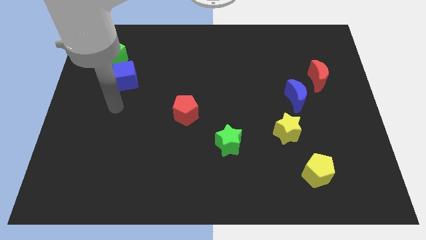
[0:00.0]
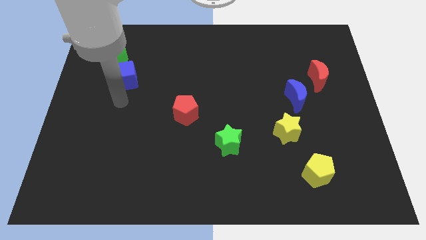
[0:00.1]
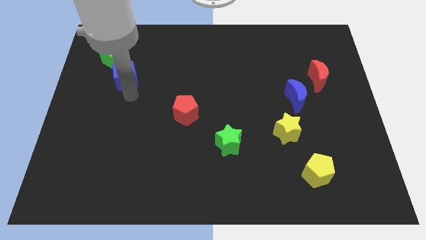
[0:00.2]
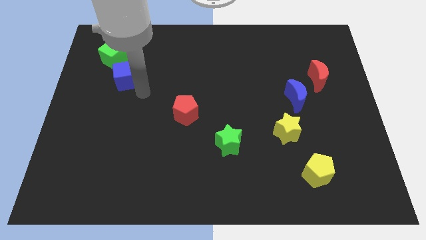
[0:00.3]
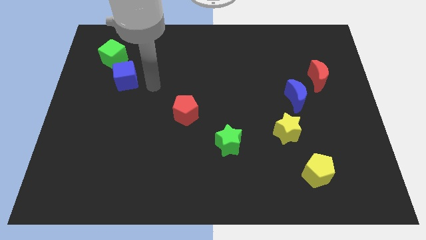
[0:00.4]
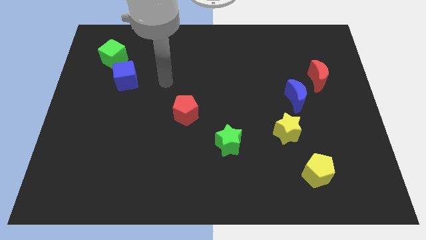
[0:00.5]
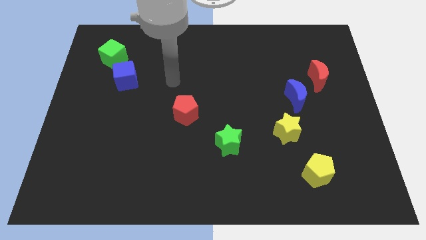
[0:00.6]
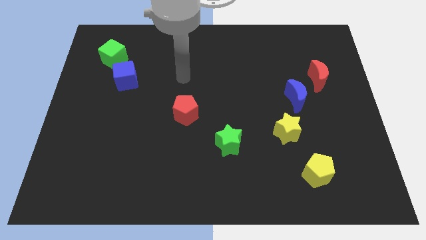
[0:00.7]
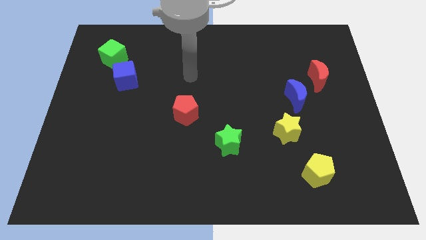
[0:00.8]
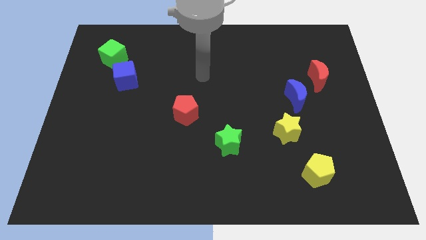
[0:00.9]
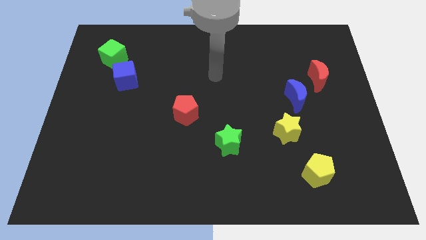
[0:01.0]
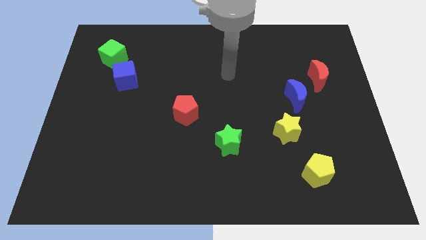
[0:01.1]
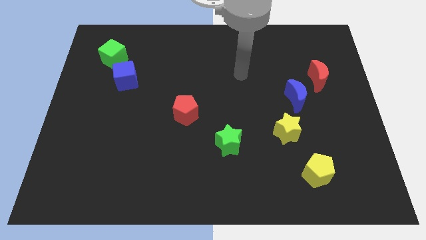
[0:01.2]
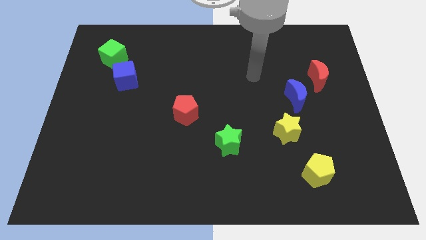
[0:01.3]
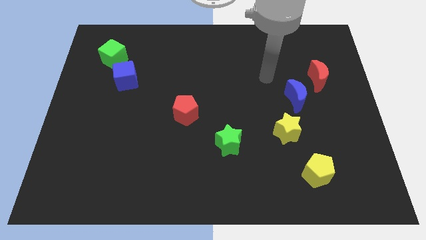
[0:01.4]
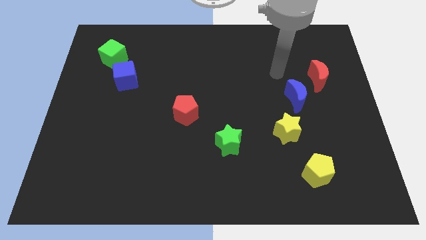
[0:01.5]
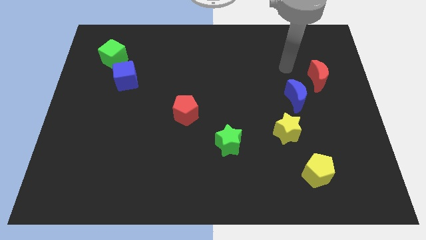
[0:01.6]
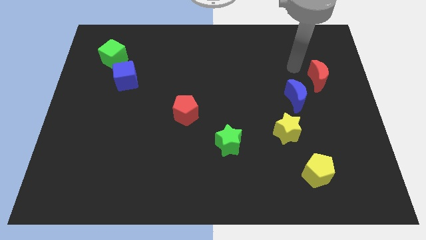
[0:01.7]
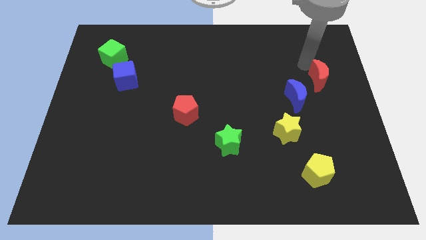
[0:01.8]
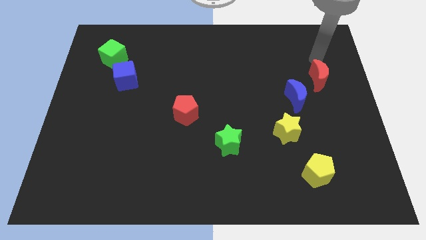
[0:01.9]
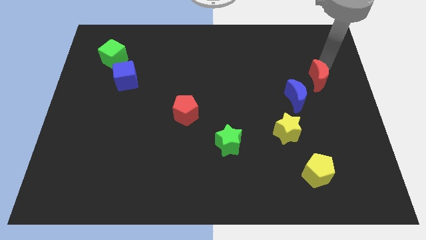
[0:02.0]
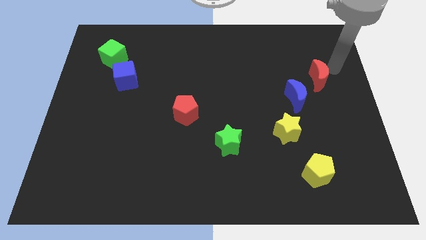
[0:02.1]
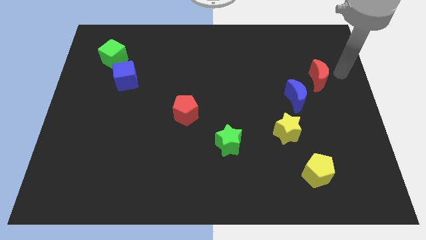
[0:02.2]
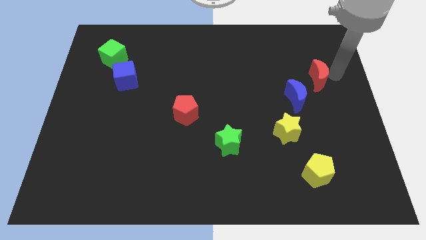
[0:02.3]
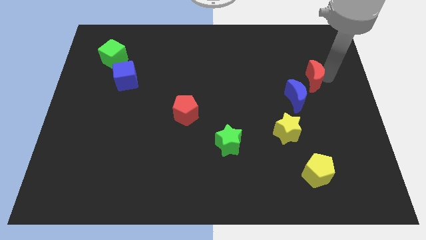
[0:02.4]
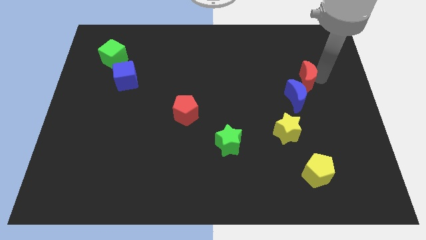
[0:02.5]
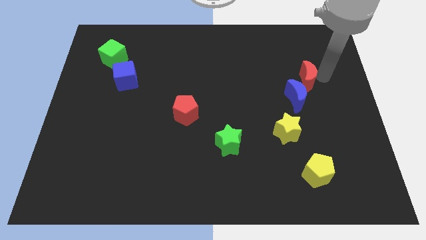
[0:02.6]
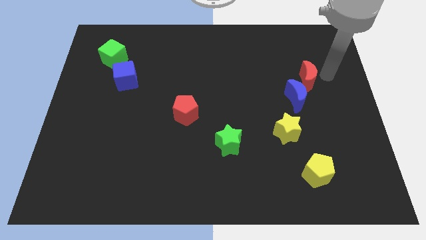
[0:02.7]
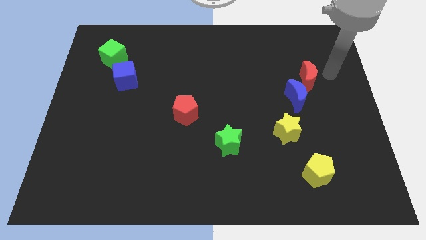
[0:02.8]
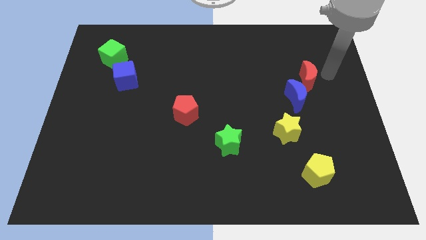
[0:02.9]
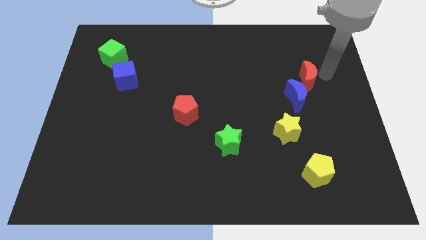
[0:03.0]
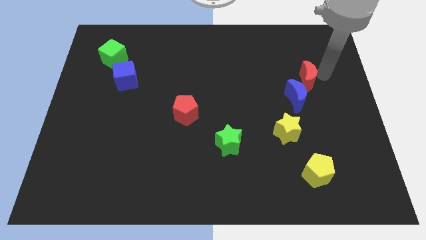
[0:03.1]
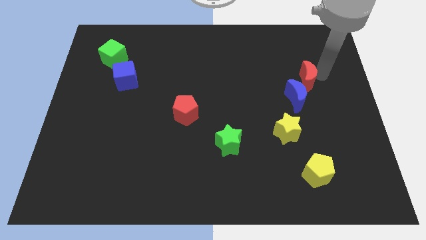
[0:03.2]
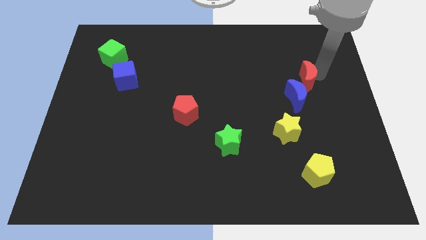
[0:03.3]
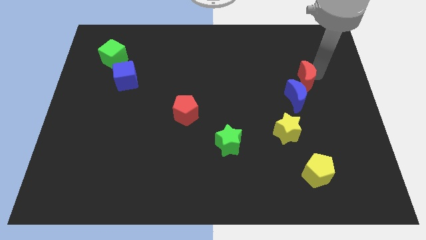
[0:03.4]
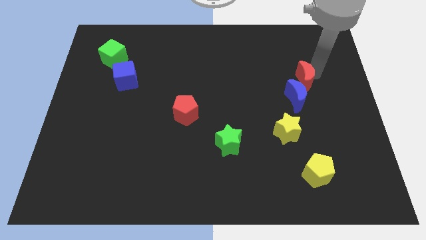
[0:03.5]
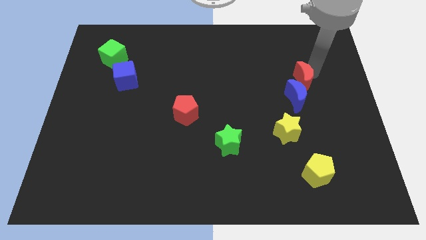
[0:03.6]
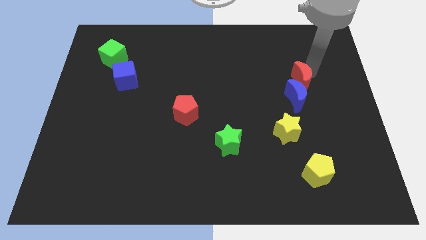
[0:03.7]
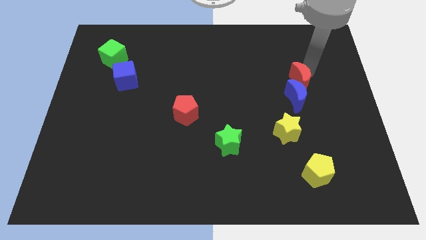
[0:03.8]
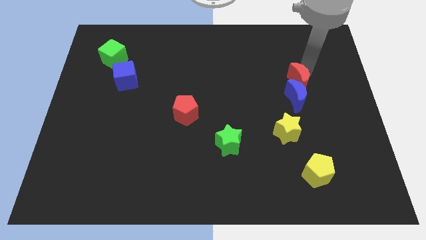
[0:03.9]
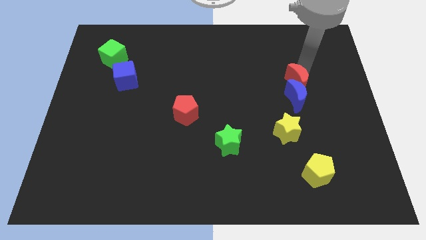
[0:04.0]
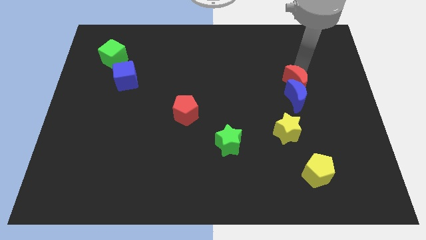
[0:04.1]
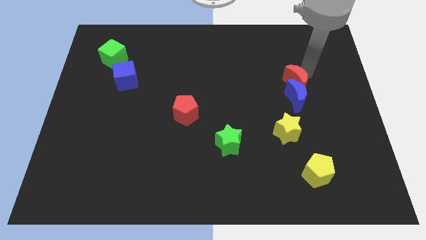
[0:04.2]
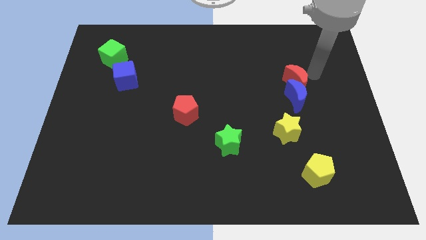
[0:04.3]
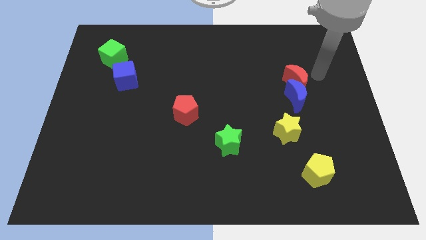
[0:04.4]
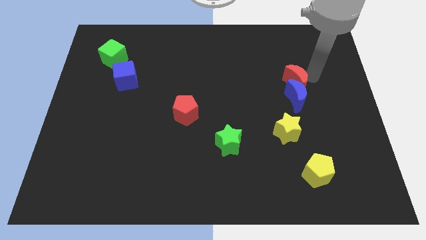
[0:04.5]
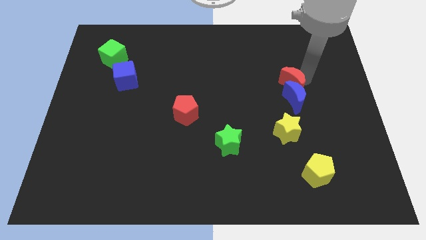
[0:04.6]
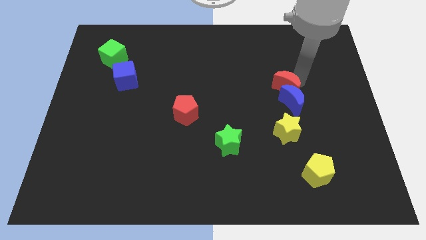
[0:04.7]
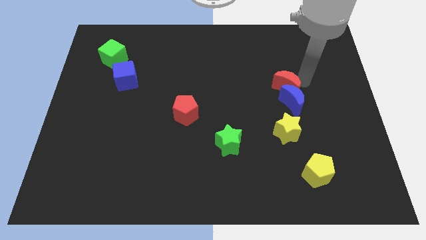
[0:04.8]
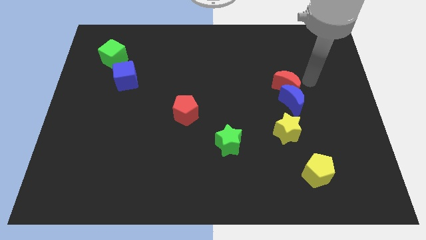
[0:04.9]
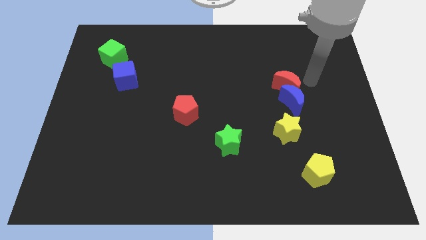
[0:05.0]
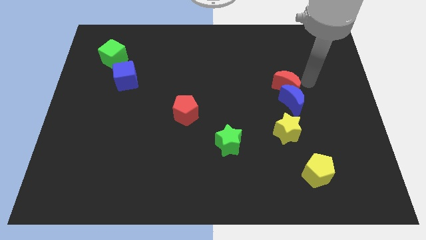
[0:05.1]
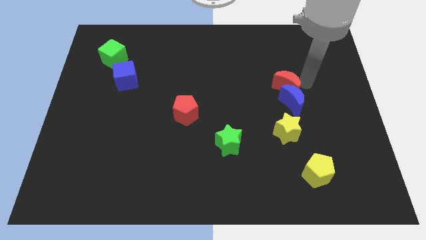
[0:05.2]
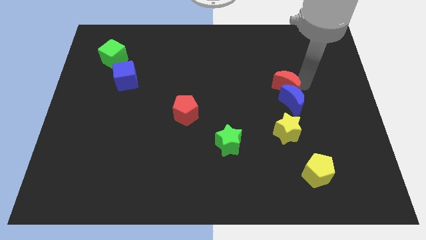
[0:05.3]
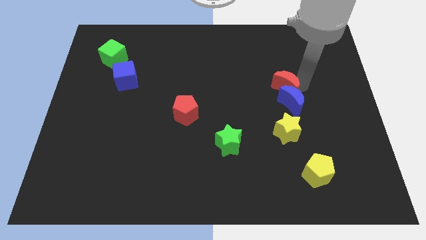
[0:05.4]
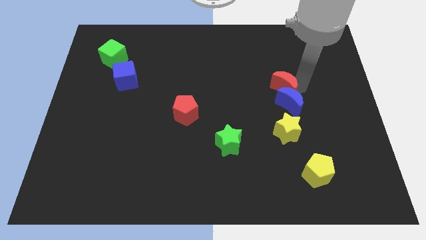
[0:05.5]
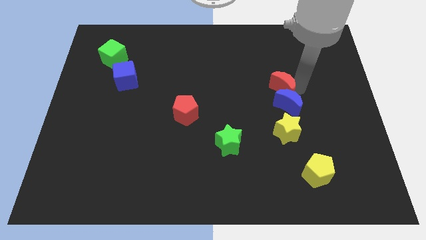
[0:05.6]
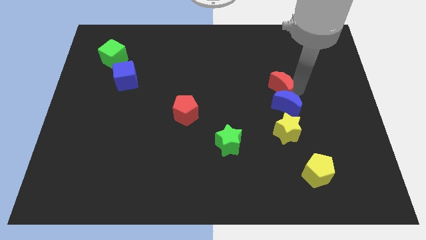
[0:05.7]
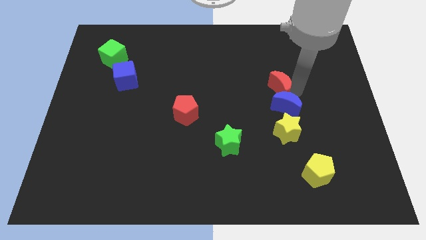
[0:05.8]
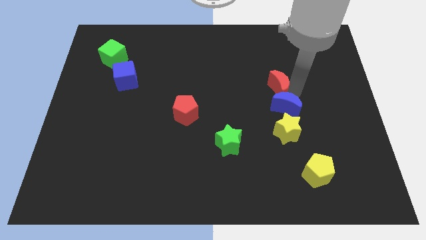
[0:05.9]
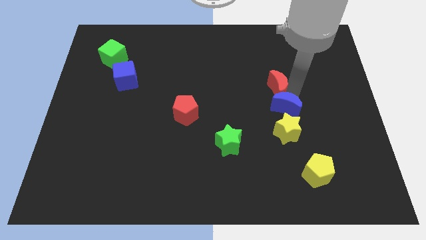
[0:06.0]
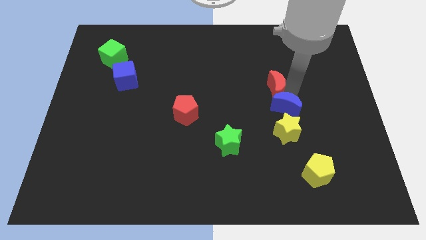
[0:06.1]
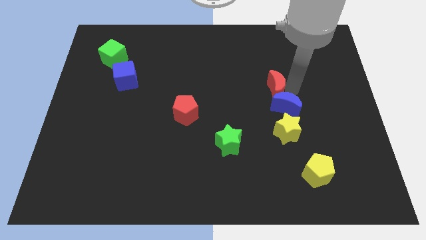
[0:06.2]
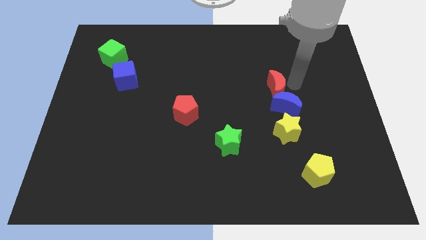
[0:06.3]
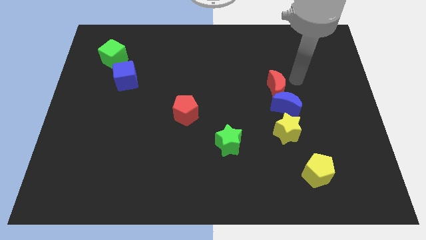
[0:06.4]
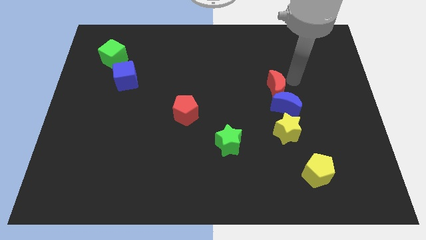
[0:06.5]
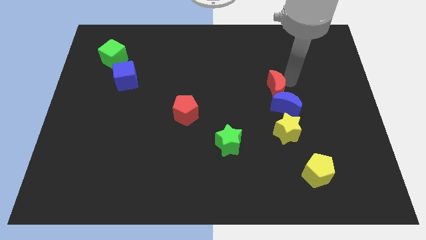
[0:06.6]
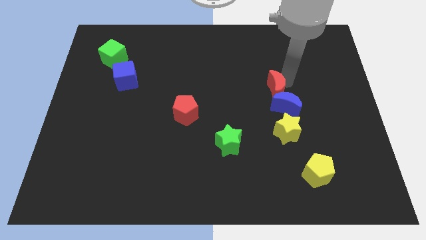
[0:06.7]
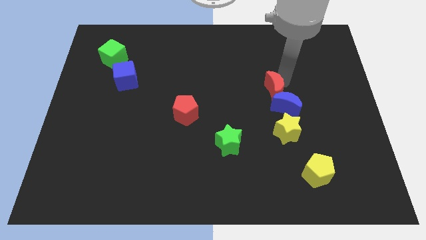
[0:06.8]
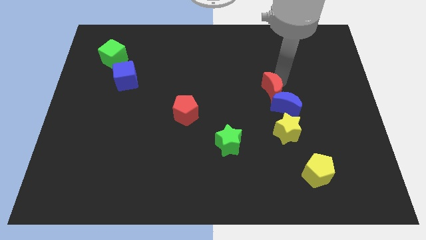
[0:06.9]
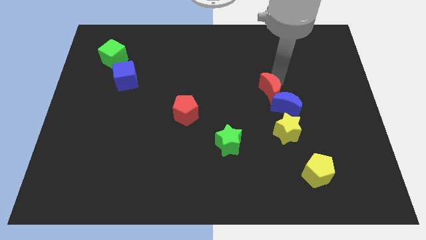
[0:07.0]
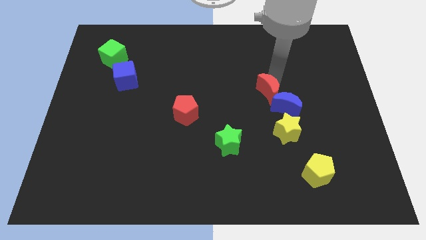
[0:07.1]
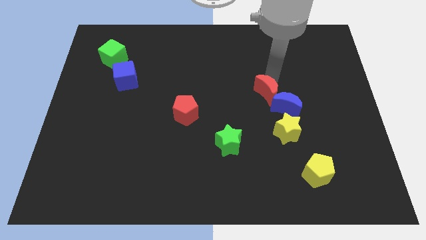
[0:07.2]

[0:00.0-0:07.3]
slide the red moon to the left side of the blue moon
